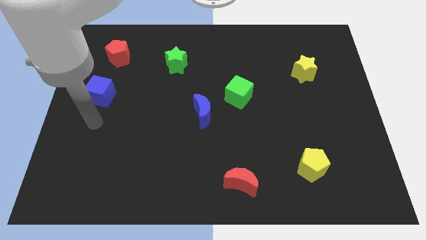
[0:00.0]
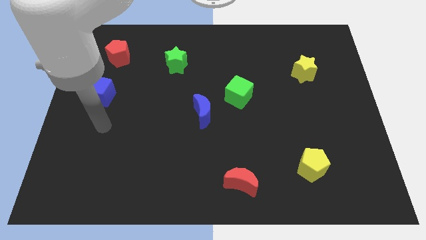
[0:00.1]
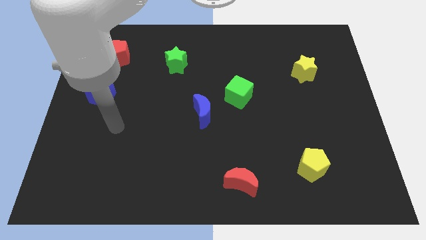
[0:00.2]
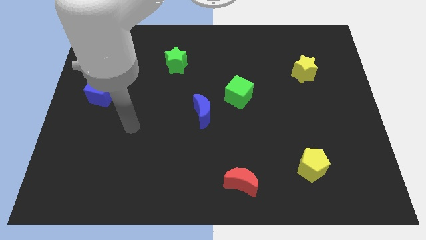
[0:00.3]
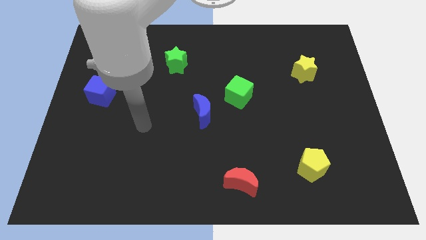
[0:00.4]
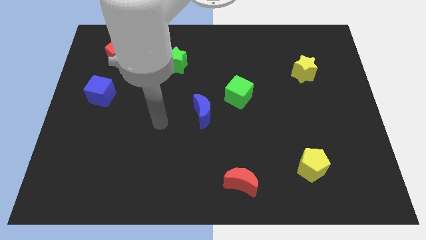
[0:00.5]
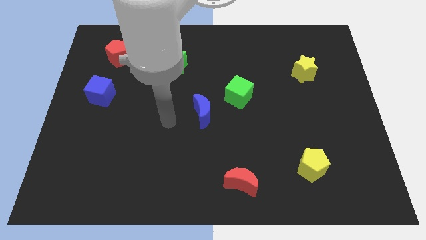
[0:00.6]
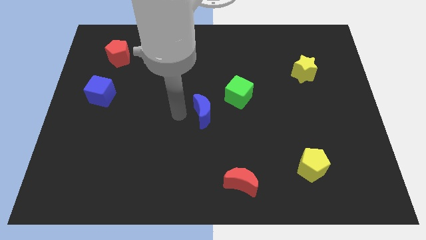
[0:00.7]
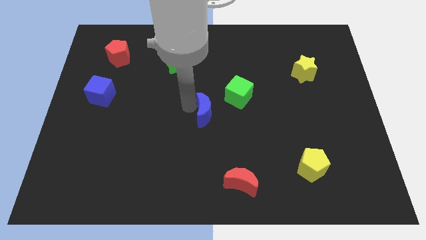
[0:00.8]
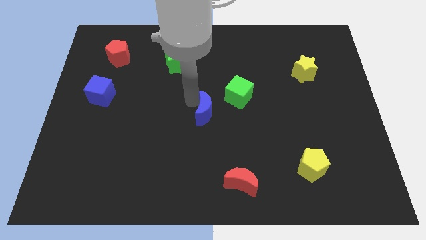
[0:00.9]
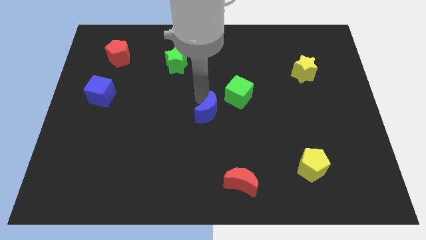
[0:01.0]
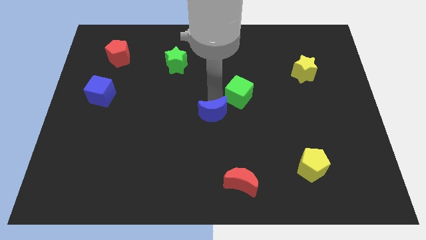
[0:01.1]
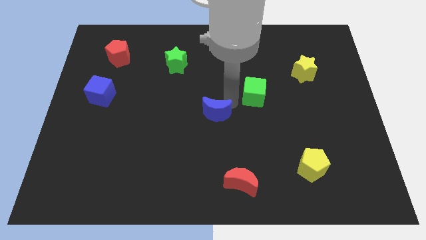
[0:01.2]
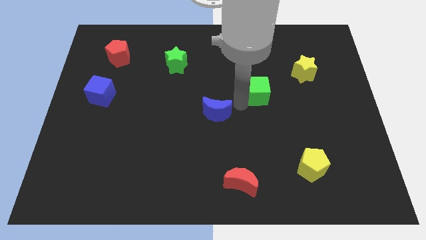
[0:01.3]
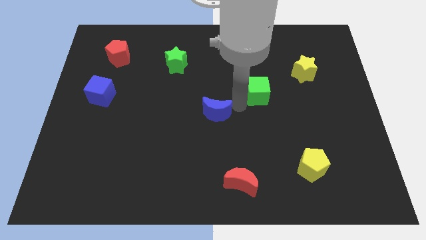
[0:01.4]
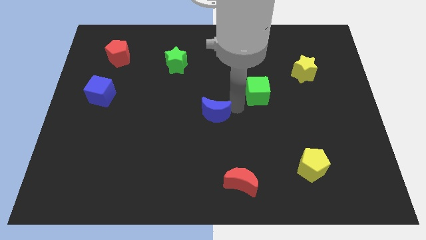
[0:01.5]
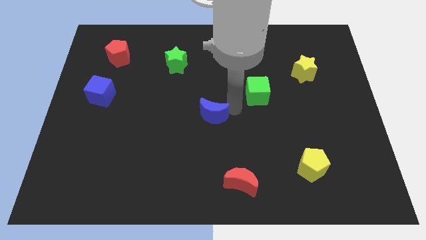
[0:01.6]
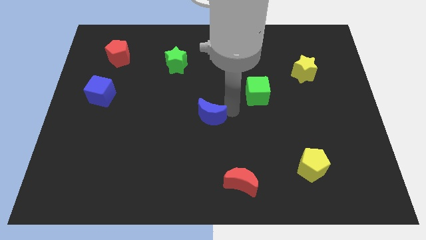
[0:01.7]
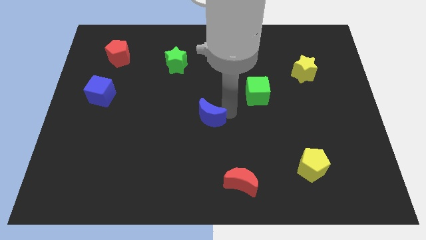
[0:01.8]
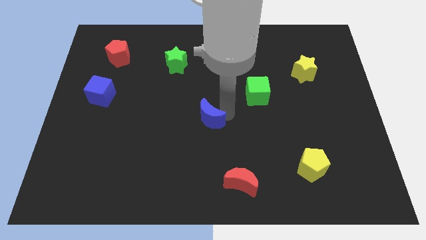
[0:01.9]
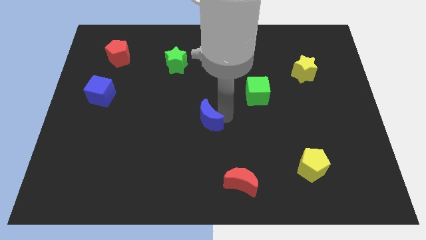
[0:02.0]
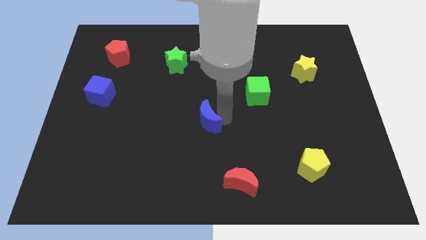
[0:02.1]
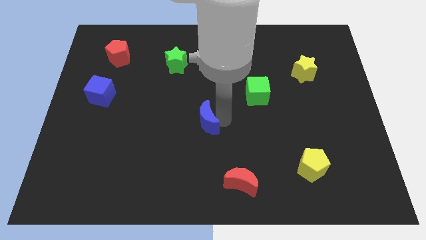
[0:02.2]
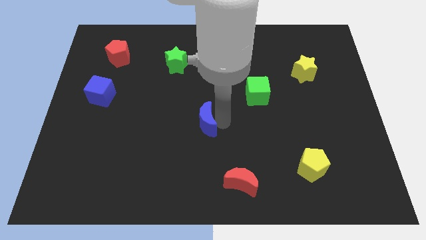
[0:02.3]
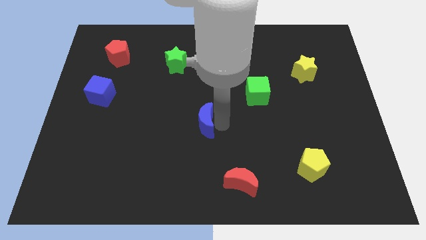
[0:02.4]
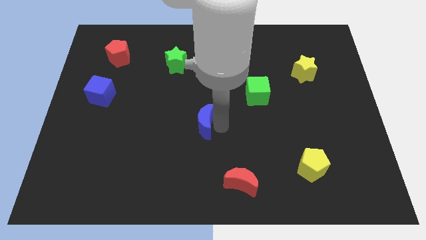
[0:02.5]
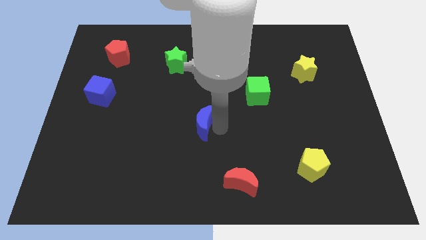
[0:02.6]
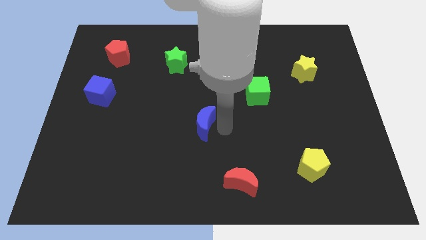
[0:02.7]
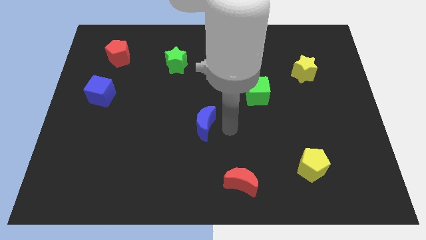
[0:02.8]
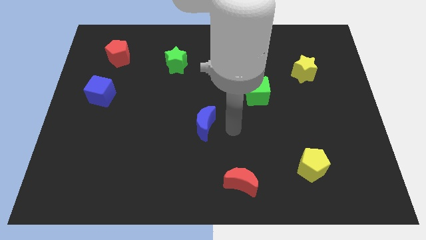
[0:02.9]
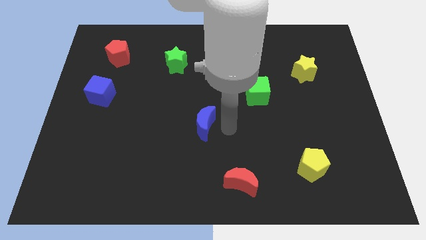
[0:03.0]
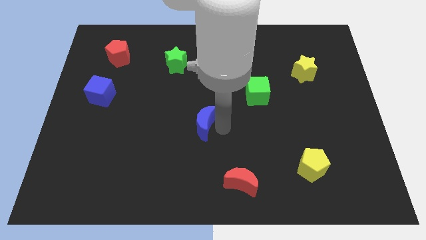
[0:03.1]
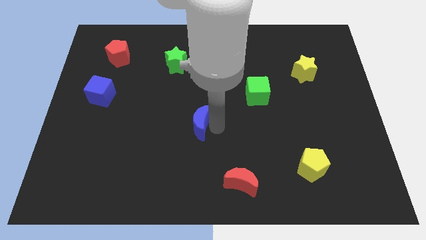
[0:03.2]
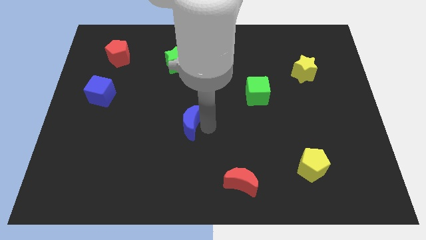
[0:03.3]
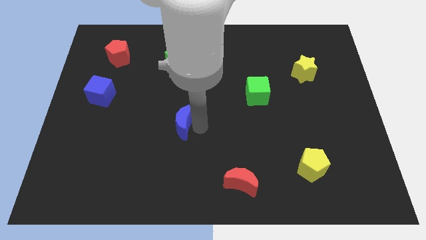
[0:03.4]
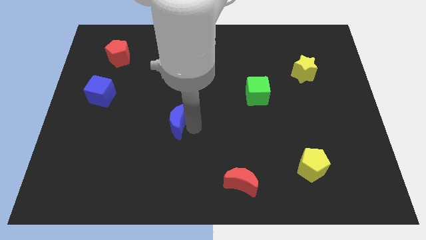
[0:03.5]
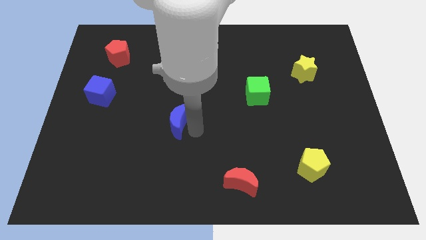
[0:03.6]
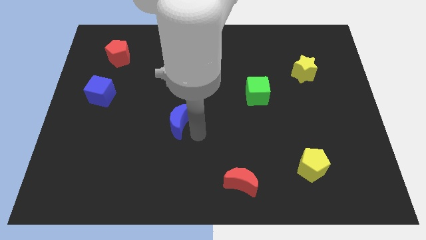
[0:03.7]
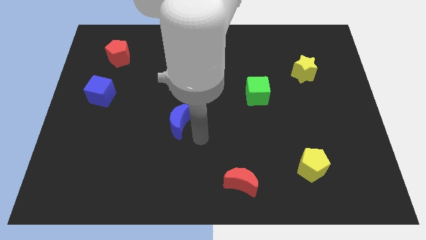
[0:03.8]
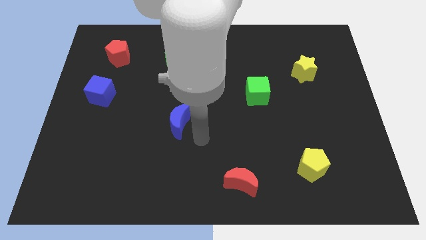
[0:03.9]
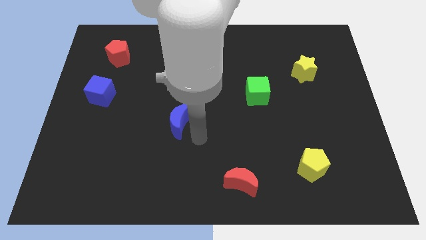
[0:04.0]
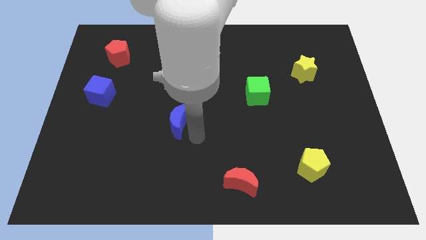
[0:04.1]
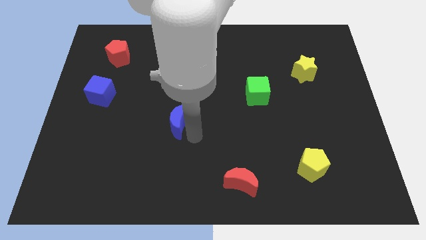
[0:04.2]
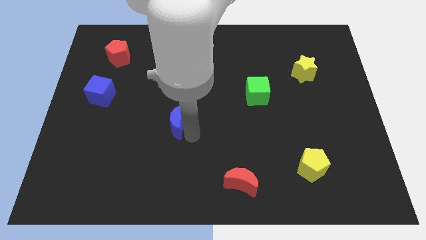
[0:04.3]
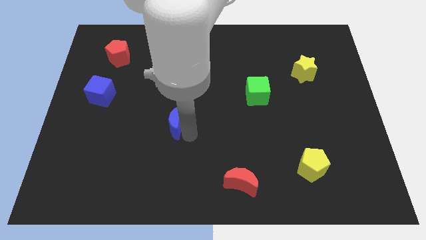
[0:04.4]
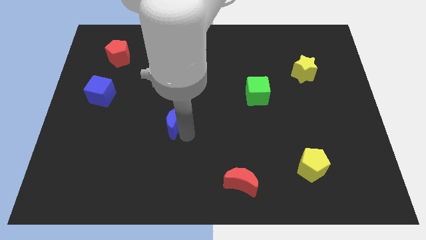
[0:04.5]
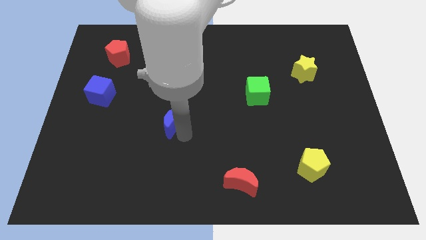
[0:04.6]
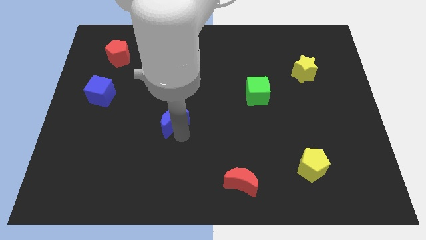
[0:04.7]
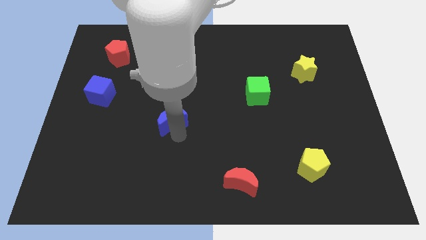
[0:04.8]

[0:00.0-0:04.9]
slide the blue moon a little to the left

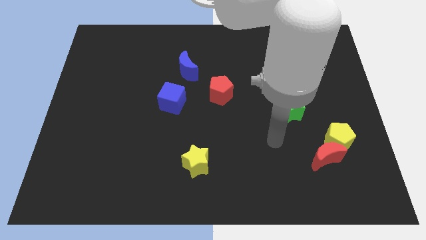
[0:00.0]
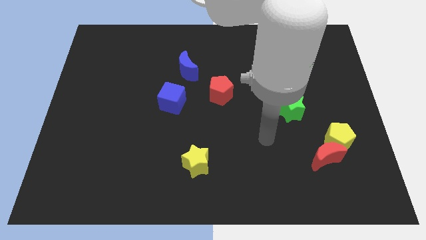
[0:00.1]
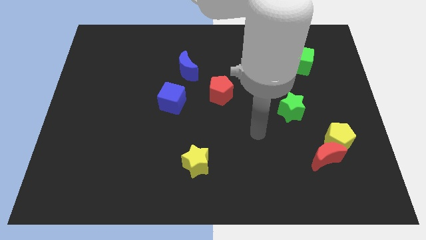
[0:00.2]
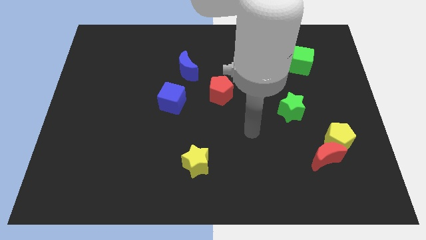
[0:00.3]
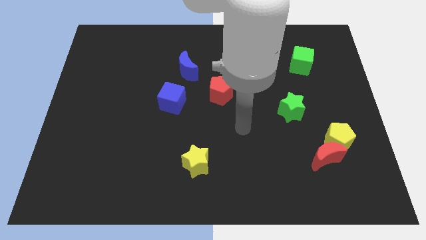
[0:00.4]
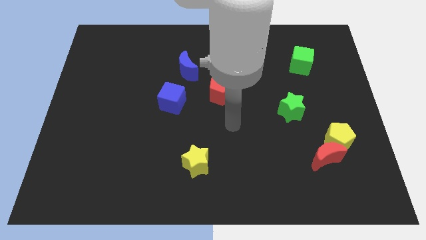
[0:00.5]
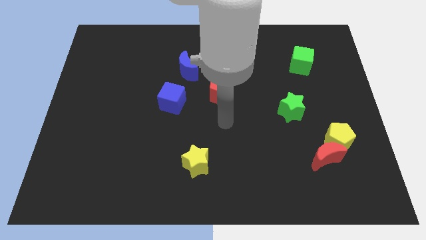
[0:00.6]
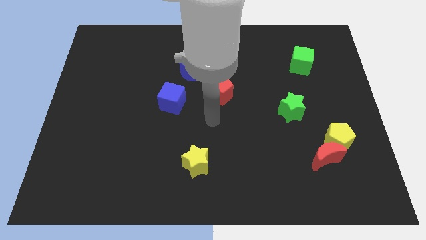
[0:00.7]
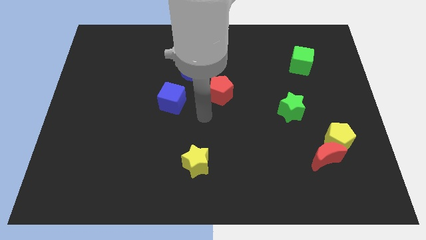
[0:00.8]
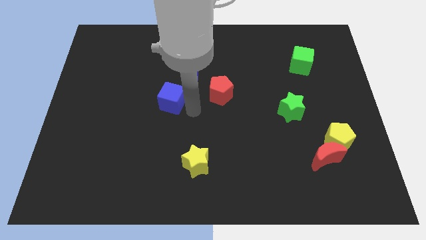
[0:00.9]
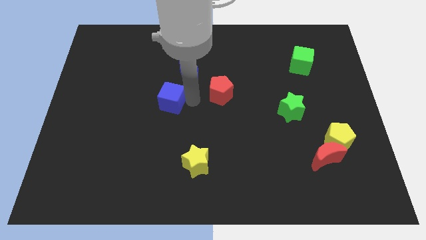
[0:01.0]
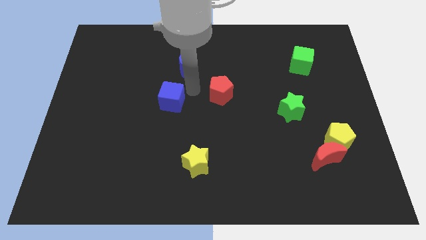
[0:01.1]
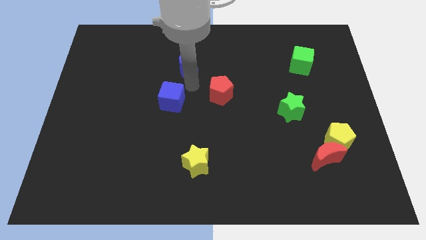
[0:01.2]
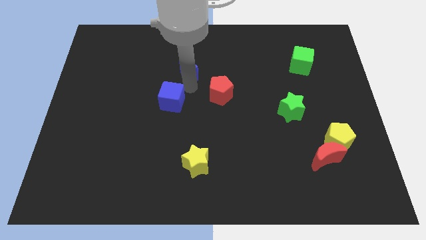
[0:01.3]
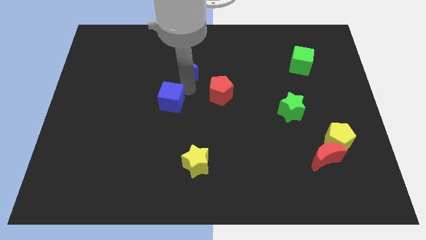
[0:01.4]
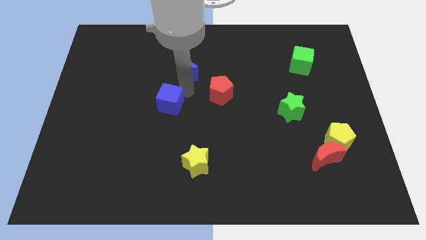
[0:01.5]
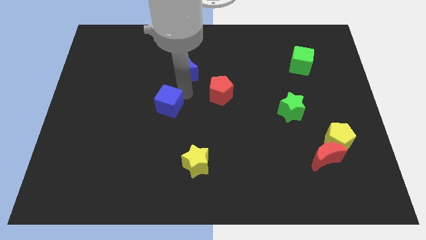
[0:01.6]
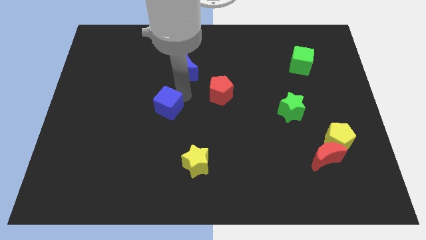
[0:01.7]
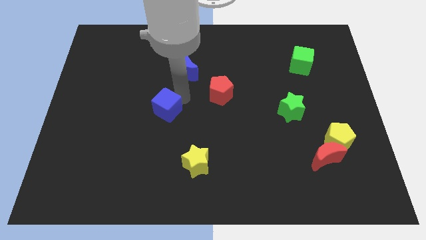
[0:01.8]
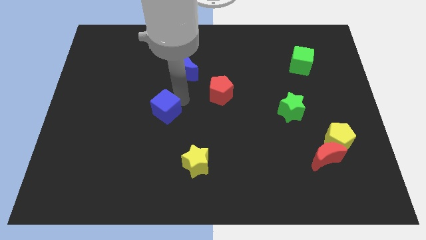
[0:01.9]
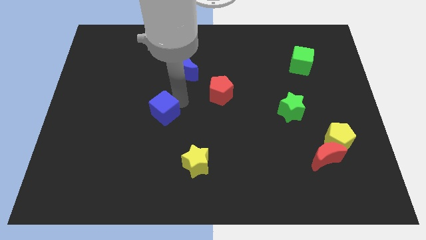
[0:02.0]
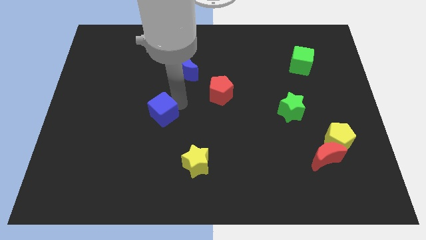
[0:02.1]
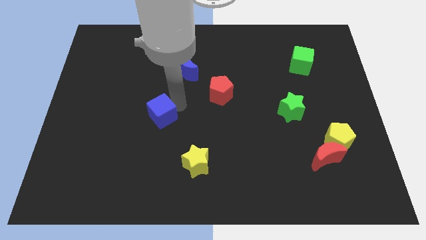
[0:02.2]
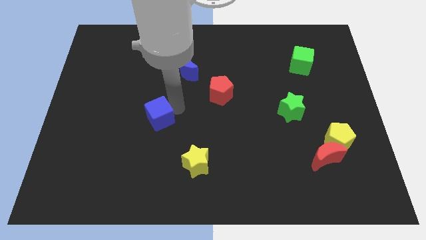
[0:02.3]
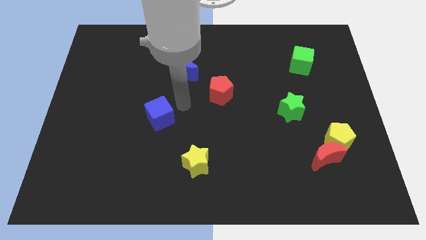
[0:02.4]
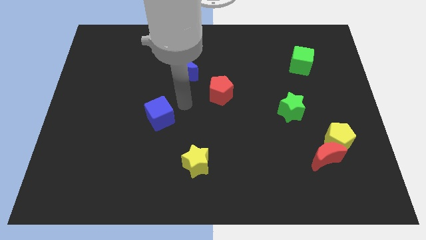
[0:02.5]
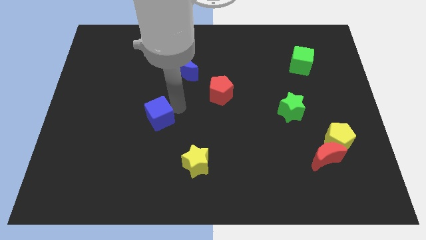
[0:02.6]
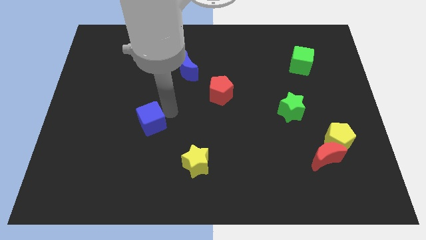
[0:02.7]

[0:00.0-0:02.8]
move the blue cube a little diagonally down and to the left

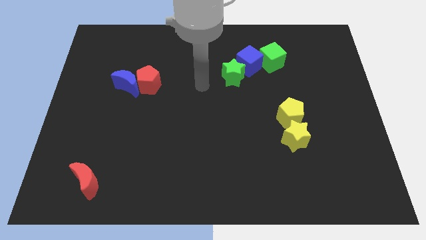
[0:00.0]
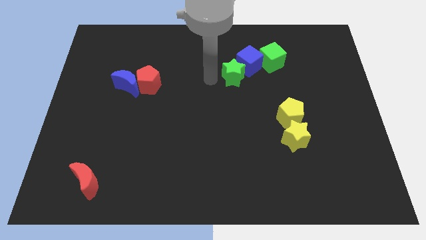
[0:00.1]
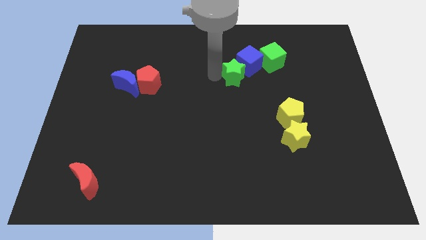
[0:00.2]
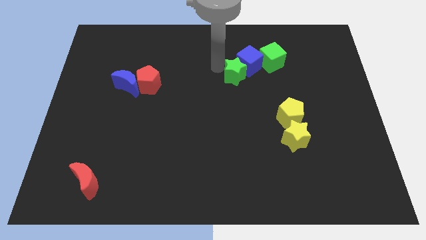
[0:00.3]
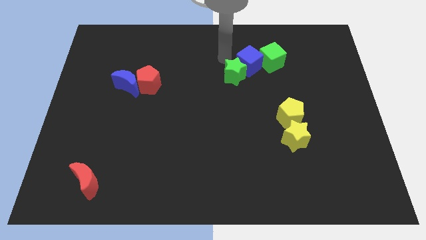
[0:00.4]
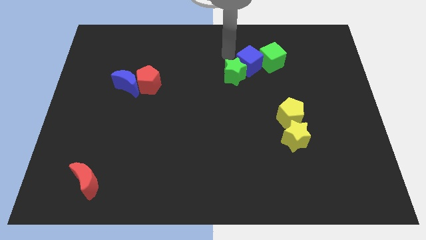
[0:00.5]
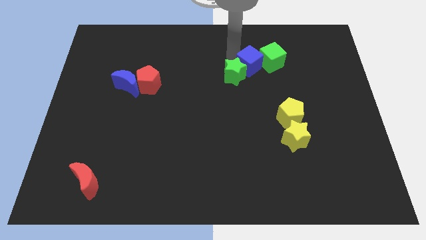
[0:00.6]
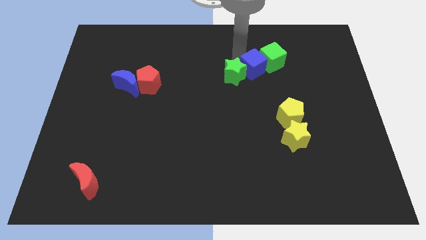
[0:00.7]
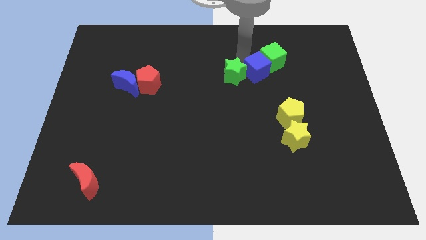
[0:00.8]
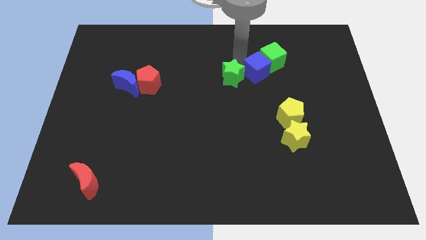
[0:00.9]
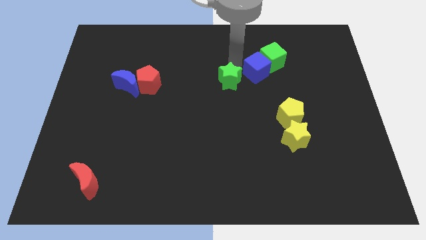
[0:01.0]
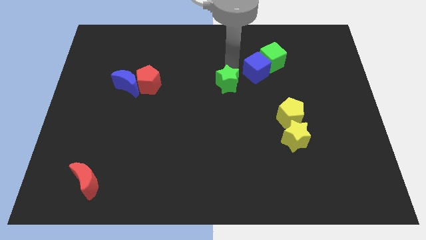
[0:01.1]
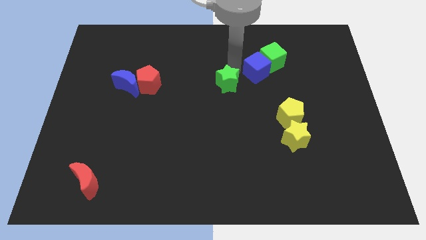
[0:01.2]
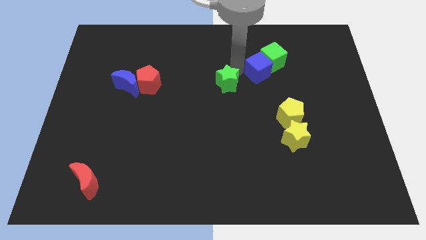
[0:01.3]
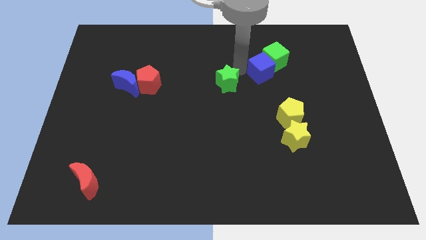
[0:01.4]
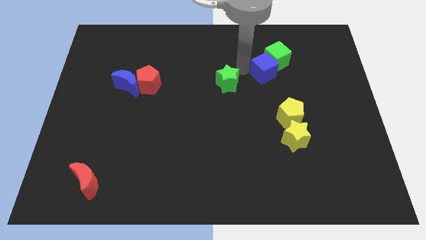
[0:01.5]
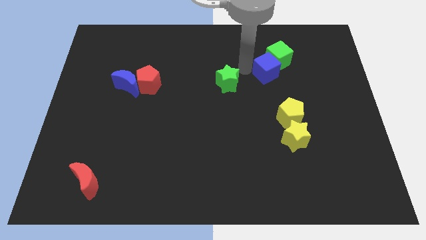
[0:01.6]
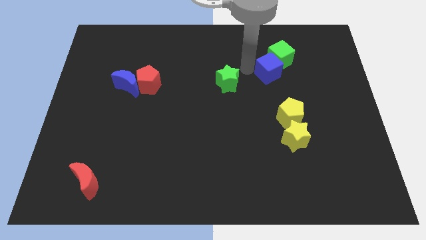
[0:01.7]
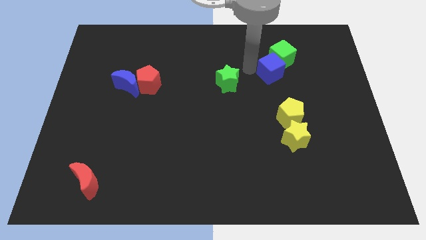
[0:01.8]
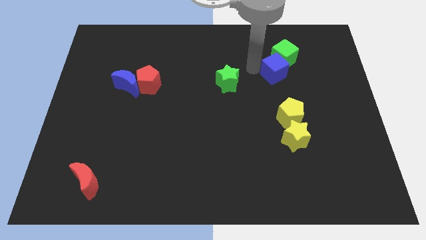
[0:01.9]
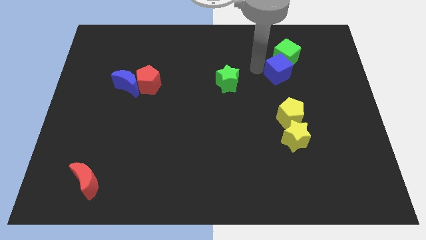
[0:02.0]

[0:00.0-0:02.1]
push the blue cube a bit to the right
